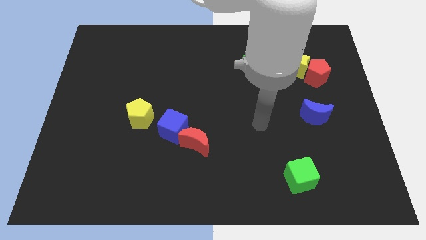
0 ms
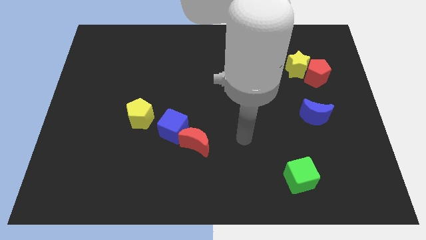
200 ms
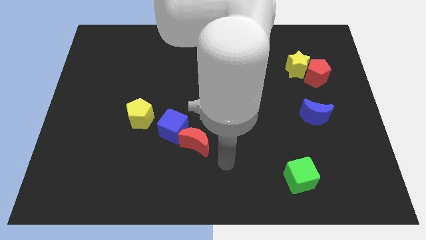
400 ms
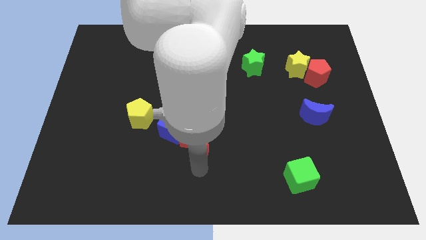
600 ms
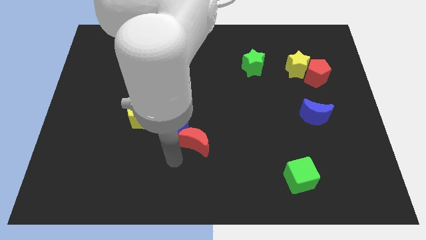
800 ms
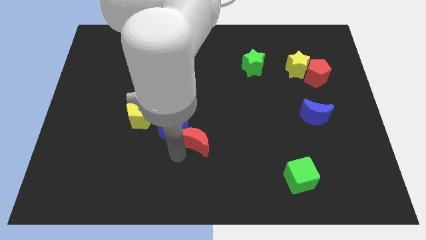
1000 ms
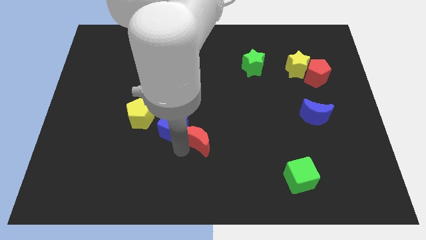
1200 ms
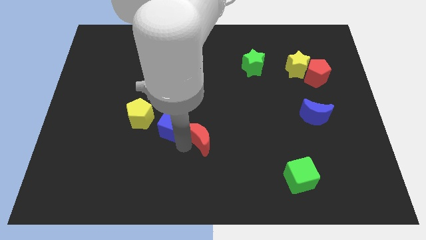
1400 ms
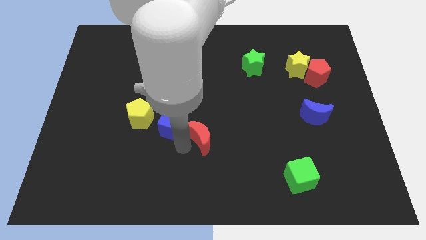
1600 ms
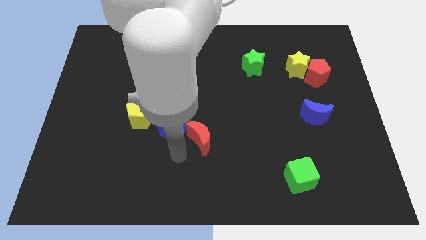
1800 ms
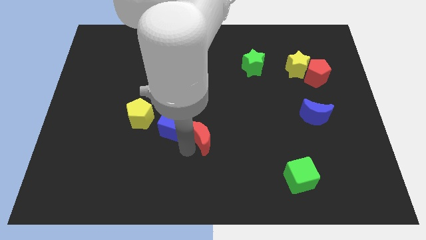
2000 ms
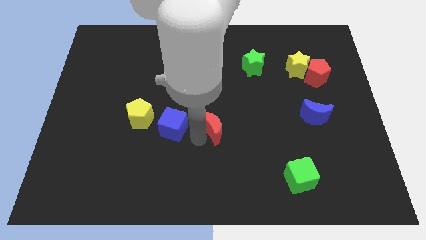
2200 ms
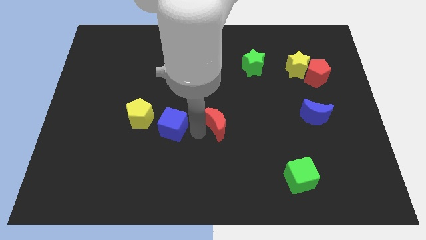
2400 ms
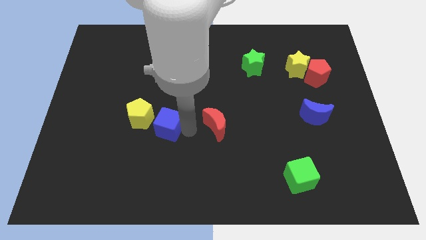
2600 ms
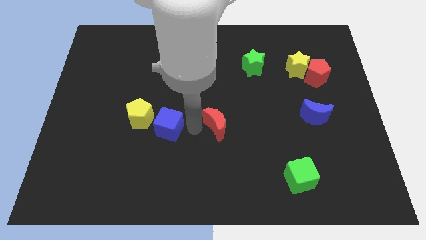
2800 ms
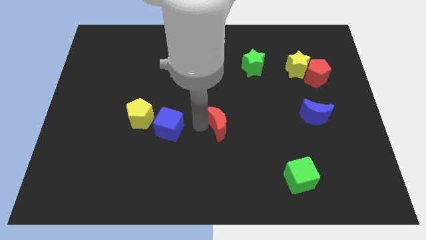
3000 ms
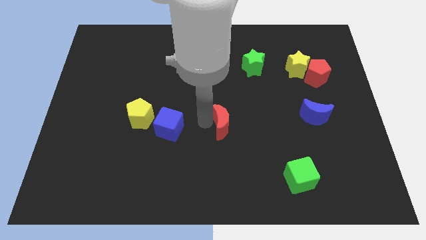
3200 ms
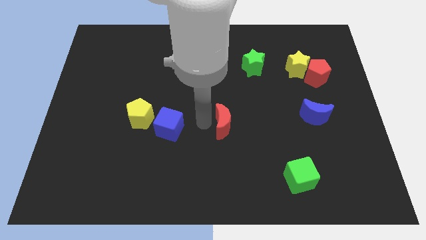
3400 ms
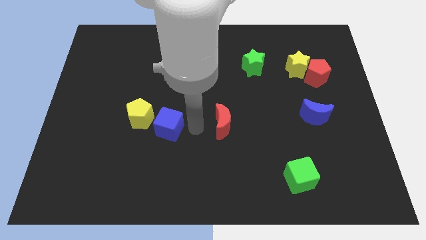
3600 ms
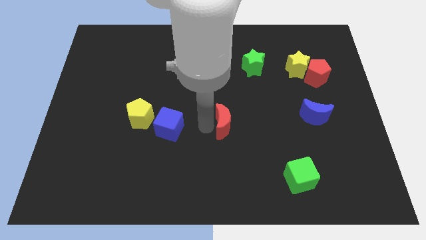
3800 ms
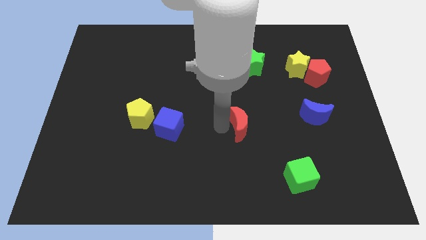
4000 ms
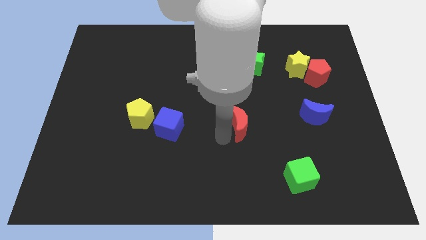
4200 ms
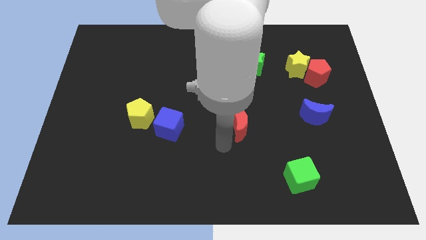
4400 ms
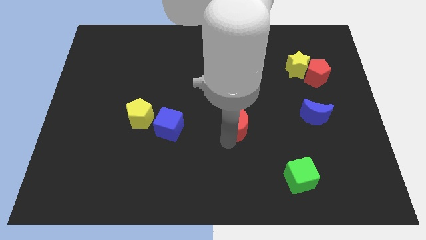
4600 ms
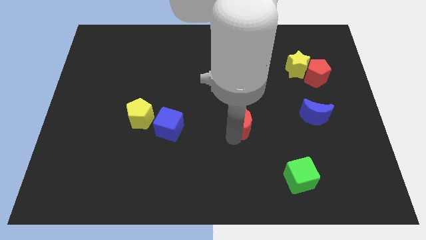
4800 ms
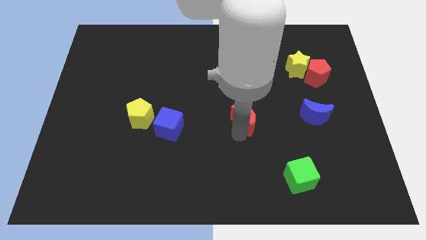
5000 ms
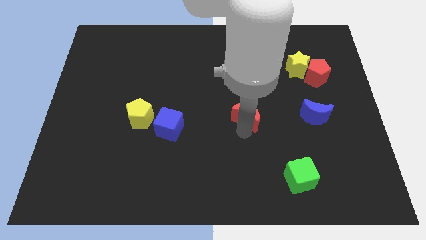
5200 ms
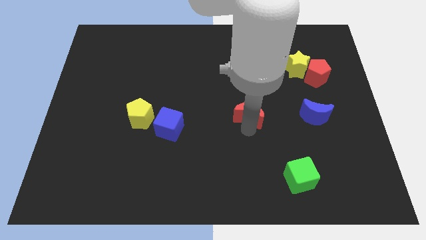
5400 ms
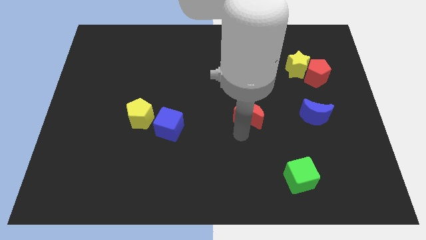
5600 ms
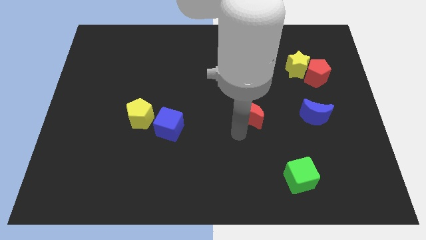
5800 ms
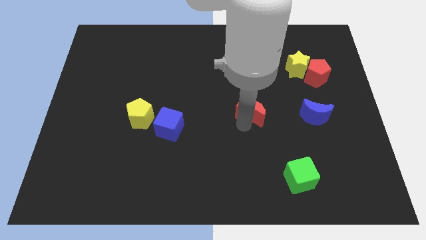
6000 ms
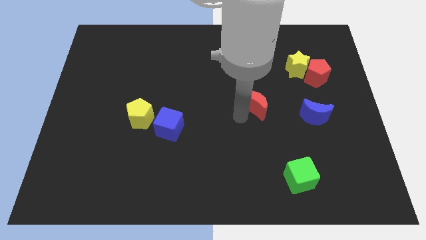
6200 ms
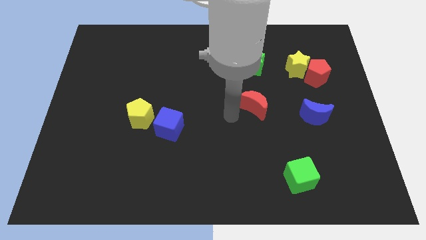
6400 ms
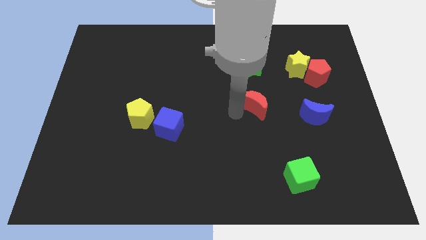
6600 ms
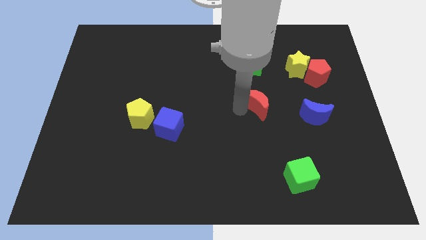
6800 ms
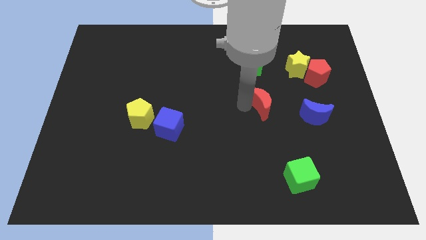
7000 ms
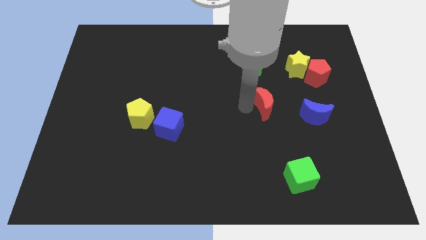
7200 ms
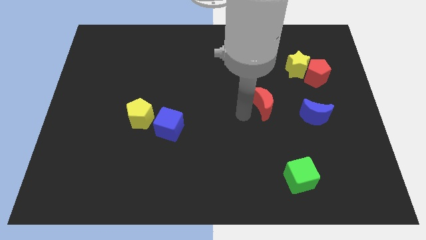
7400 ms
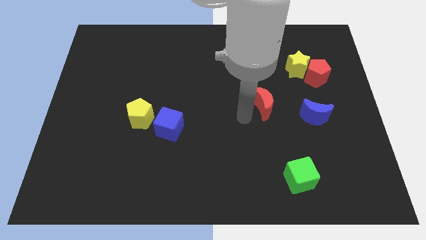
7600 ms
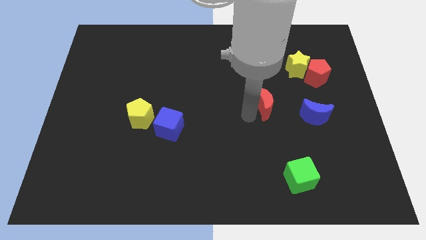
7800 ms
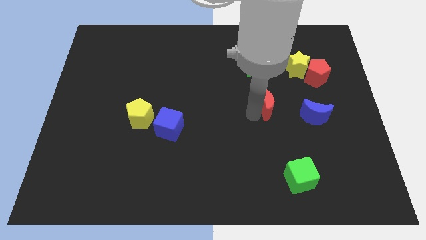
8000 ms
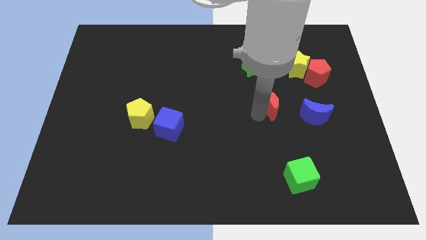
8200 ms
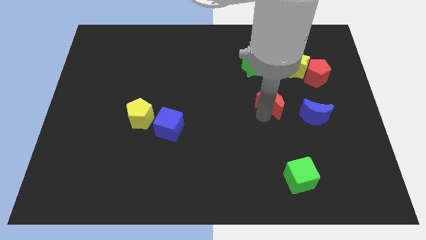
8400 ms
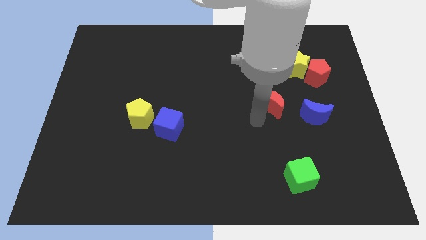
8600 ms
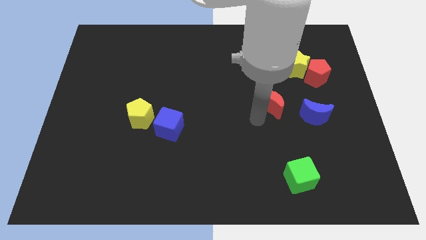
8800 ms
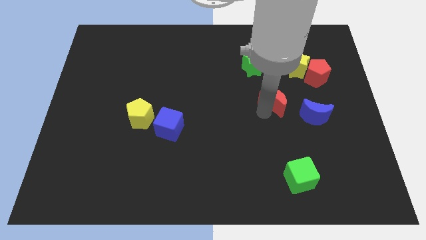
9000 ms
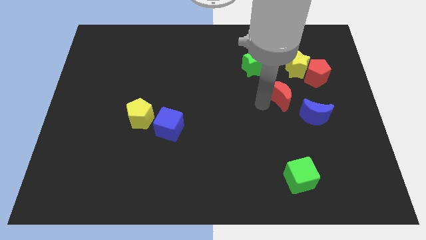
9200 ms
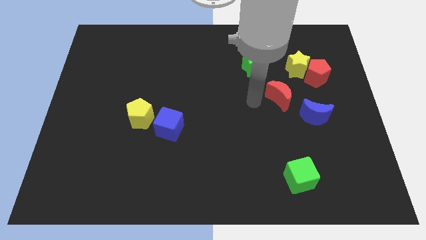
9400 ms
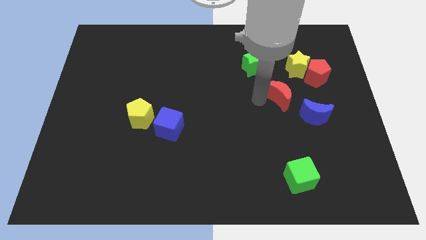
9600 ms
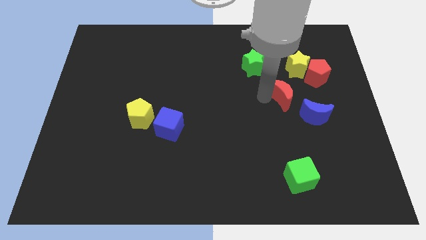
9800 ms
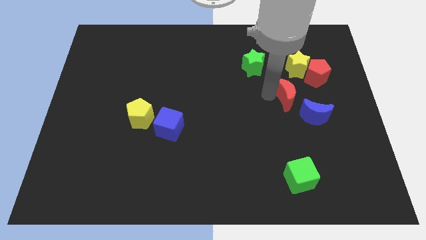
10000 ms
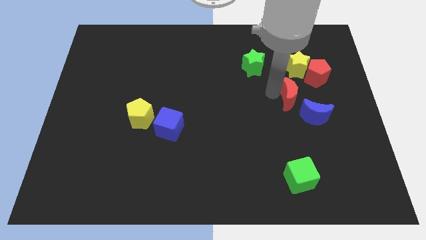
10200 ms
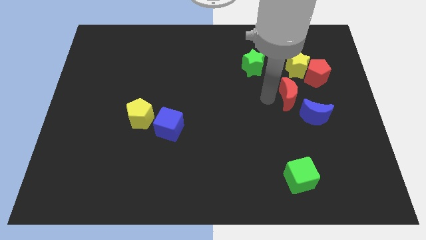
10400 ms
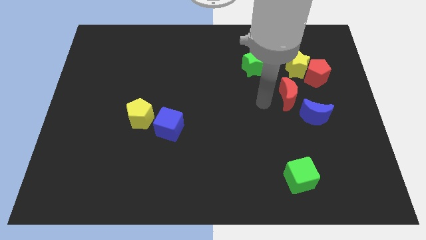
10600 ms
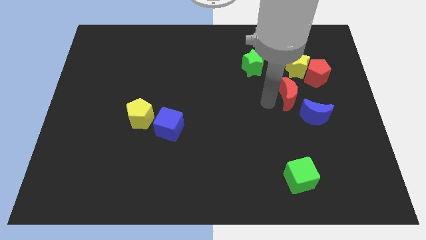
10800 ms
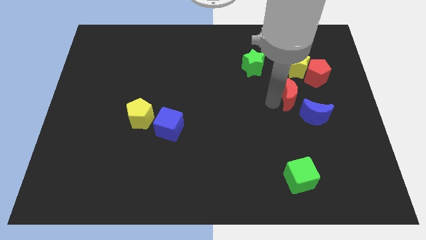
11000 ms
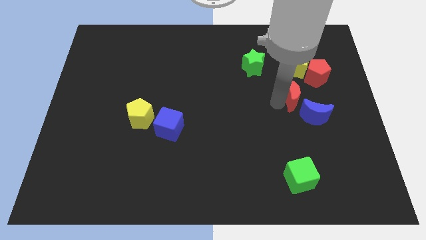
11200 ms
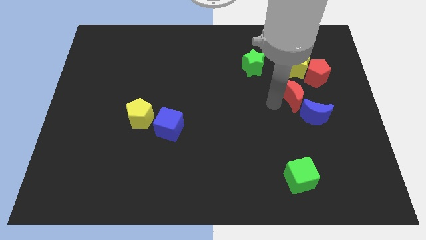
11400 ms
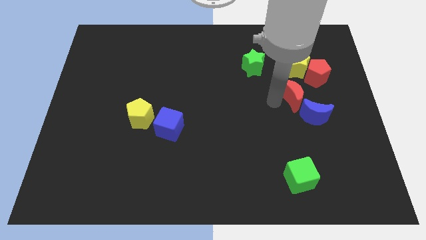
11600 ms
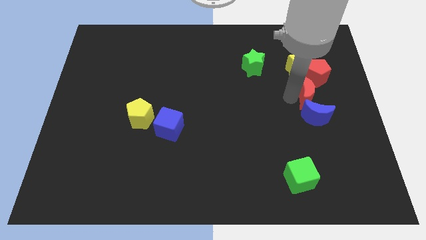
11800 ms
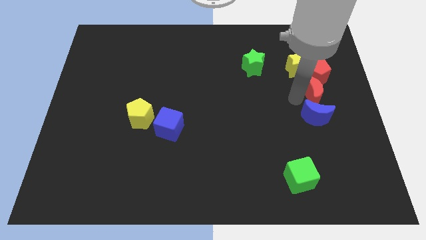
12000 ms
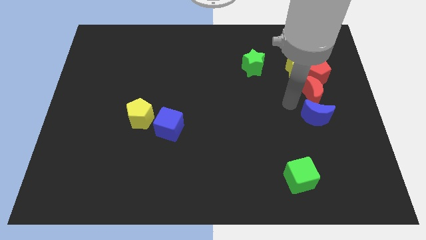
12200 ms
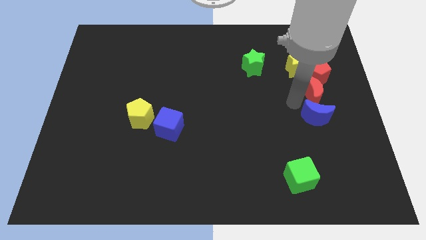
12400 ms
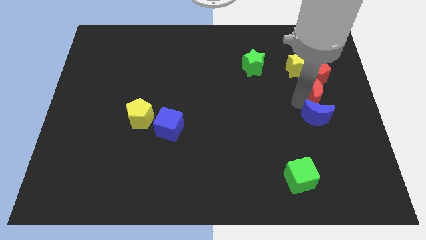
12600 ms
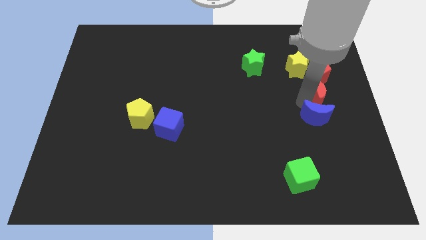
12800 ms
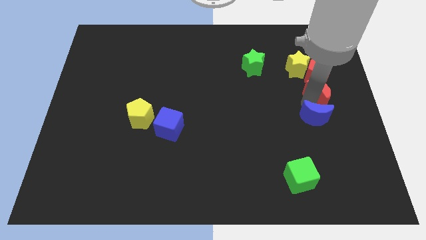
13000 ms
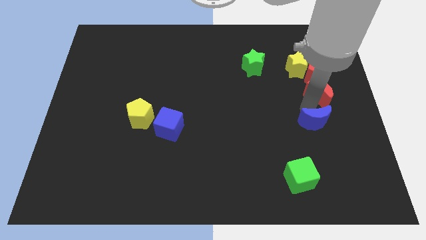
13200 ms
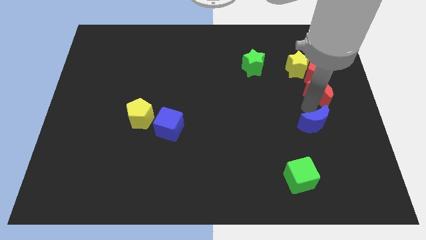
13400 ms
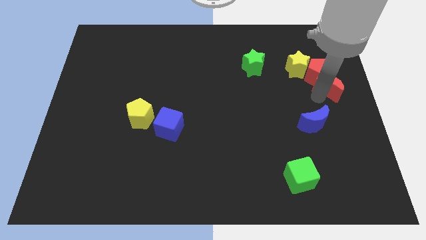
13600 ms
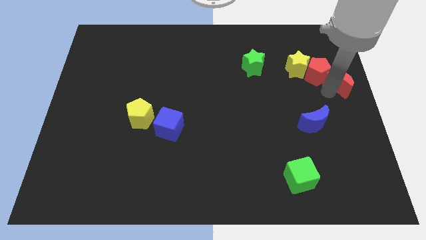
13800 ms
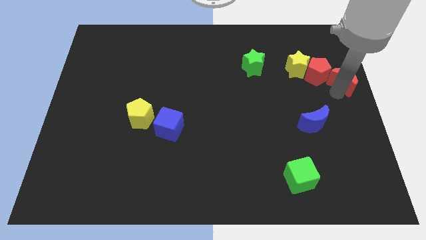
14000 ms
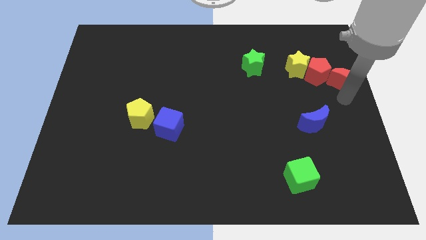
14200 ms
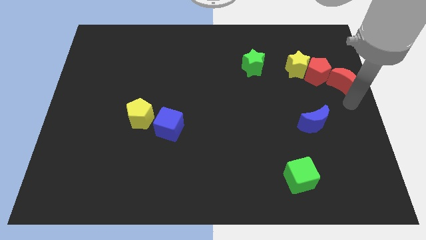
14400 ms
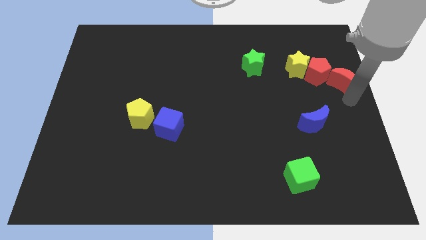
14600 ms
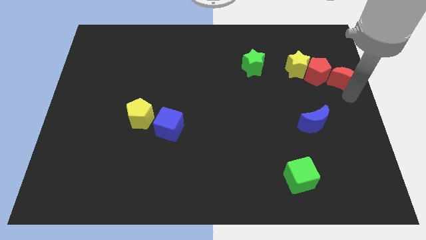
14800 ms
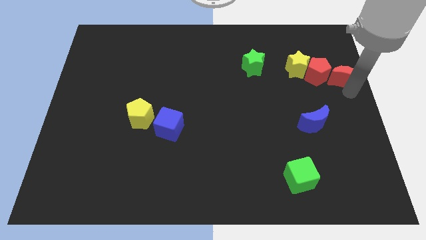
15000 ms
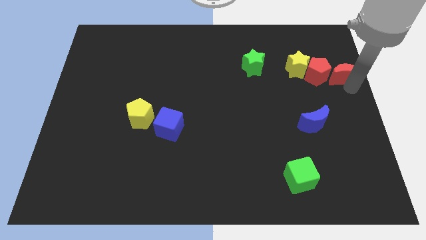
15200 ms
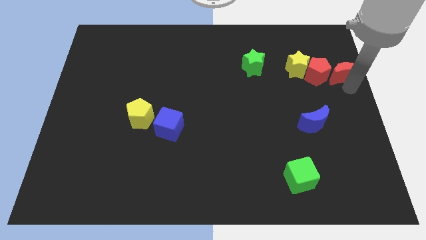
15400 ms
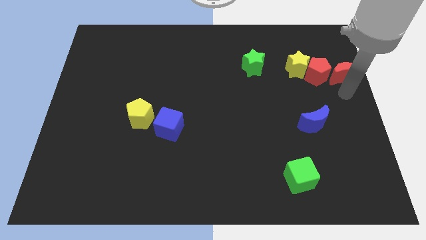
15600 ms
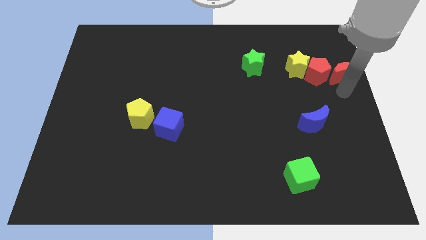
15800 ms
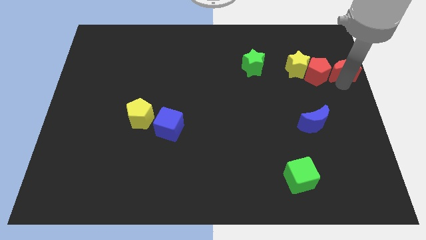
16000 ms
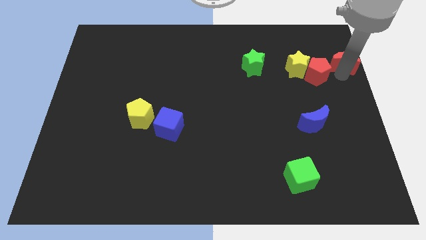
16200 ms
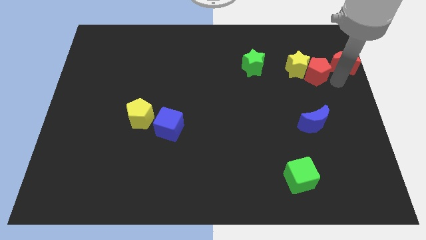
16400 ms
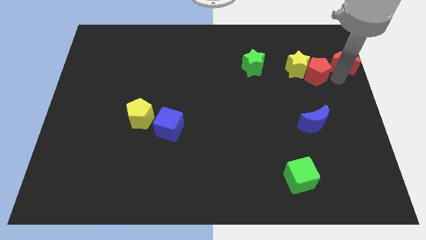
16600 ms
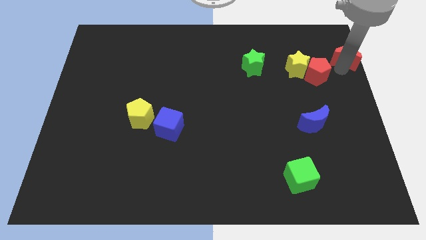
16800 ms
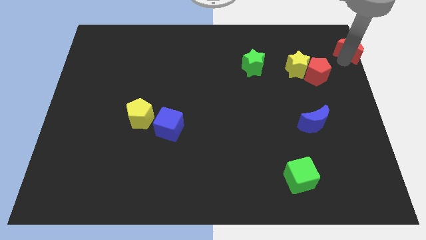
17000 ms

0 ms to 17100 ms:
slide the red moon to the top right
